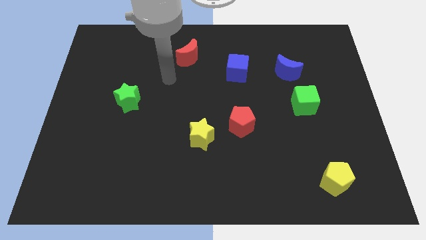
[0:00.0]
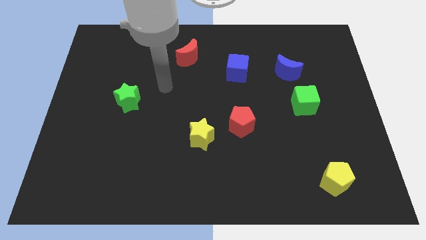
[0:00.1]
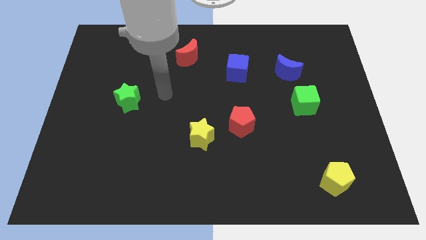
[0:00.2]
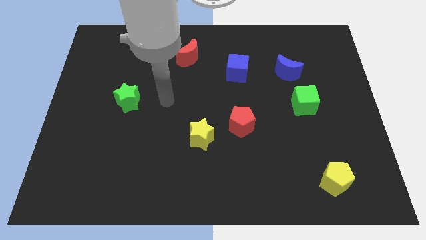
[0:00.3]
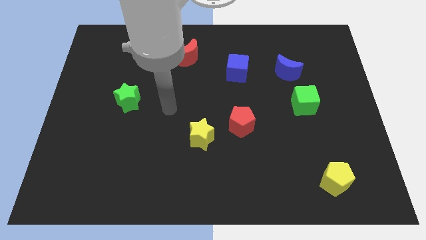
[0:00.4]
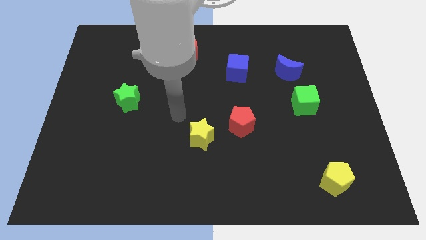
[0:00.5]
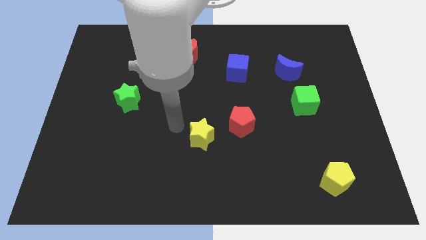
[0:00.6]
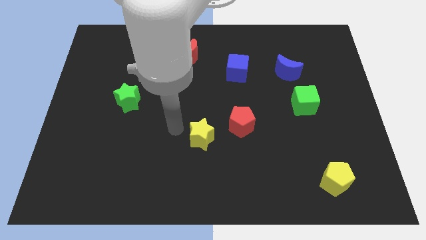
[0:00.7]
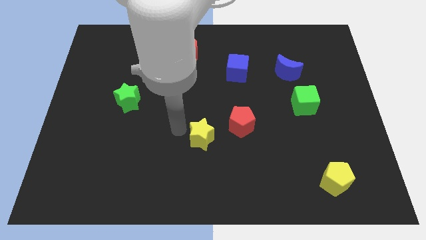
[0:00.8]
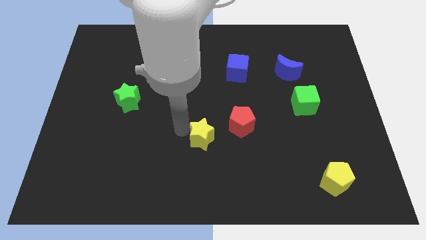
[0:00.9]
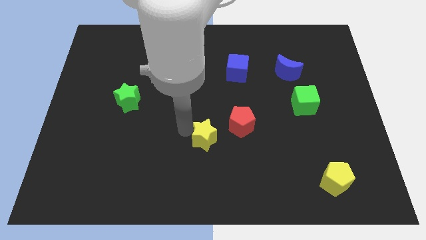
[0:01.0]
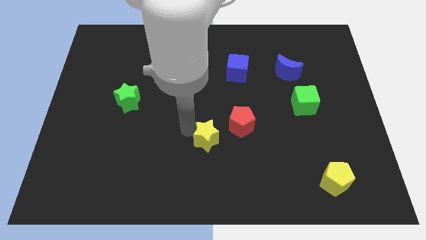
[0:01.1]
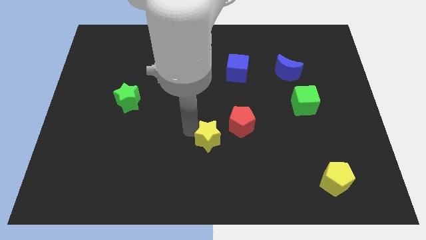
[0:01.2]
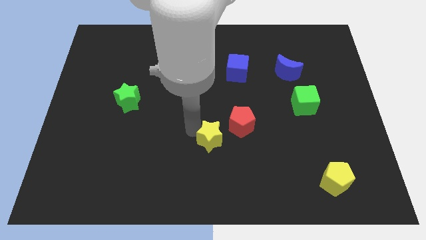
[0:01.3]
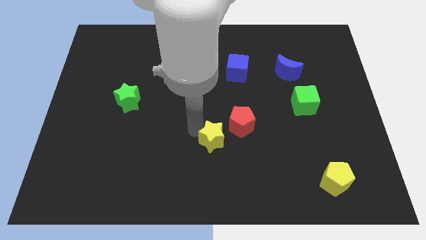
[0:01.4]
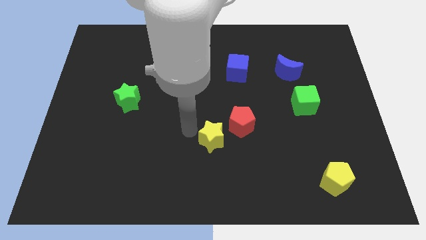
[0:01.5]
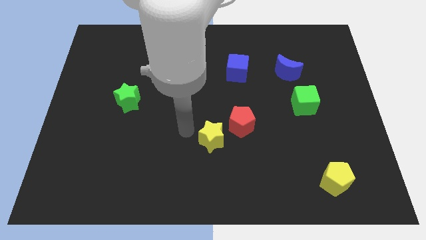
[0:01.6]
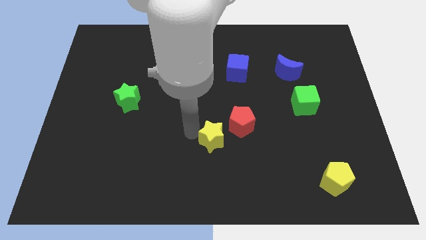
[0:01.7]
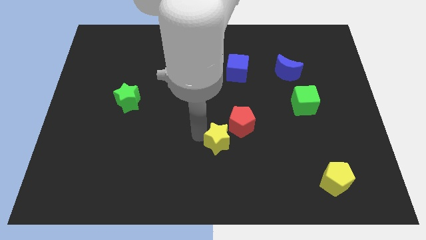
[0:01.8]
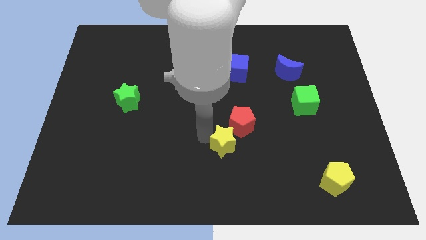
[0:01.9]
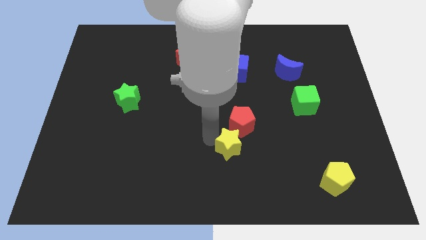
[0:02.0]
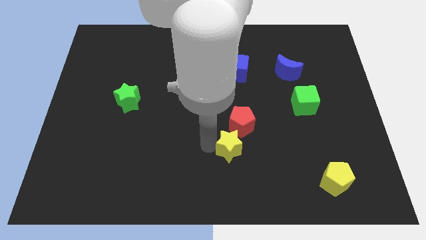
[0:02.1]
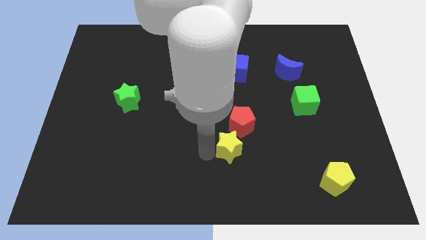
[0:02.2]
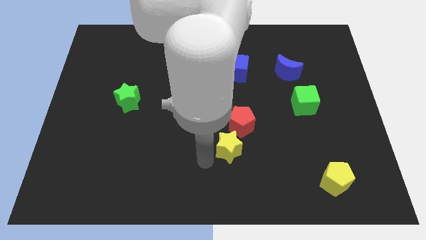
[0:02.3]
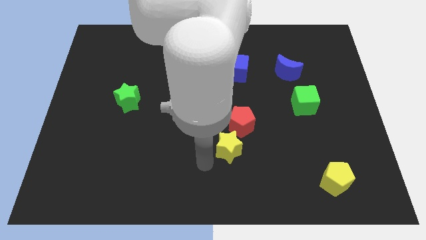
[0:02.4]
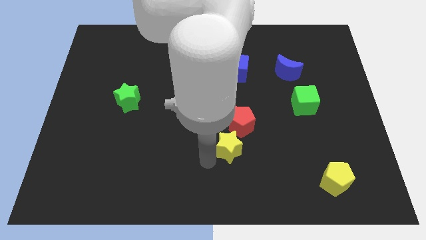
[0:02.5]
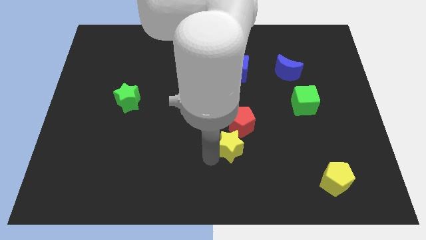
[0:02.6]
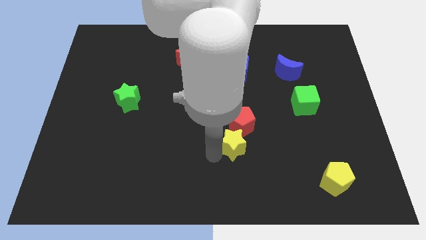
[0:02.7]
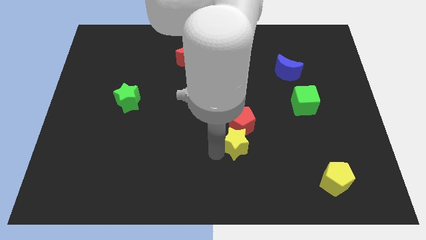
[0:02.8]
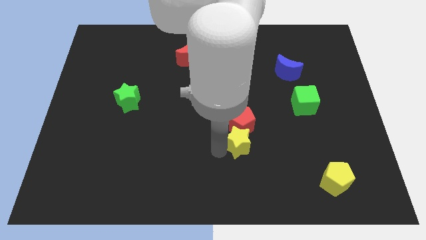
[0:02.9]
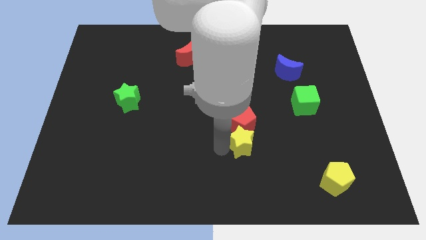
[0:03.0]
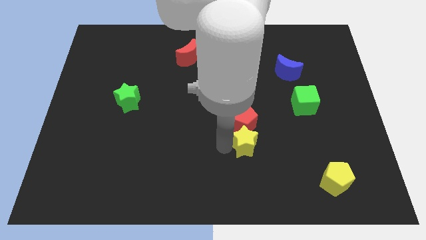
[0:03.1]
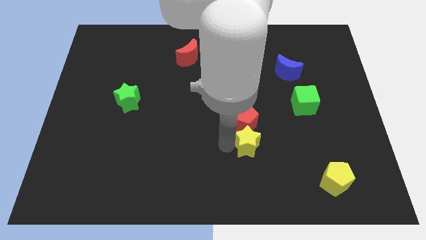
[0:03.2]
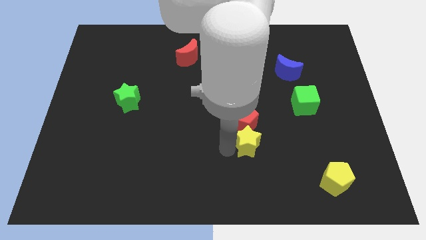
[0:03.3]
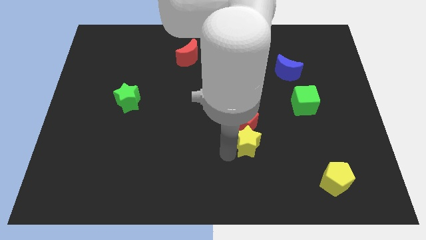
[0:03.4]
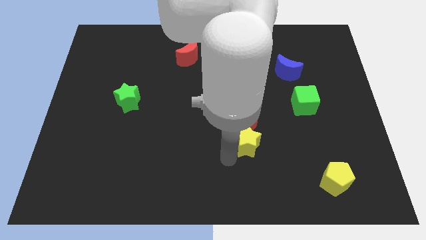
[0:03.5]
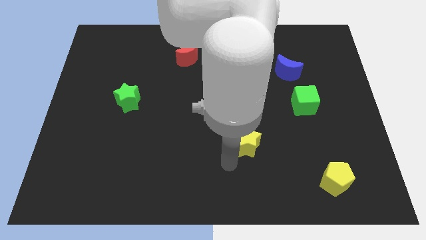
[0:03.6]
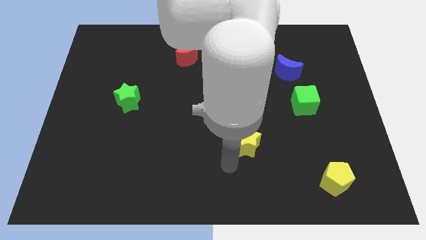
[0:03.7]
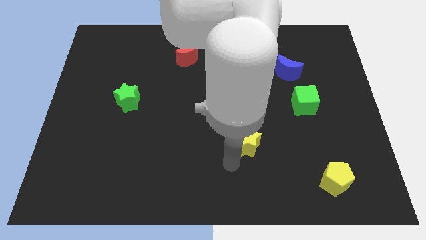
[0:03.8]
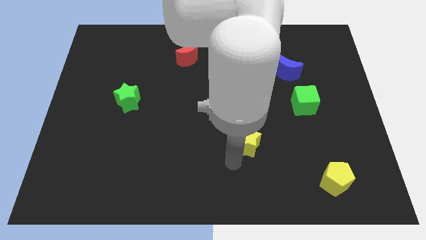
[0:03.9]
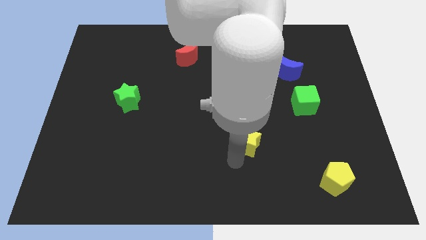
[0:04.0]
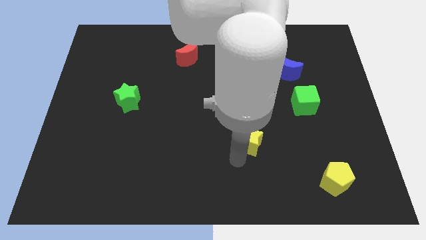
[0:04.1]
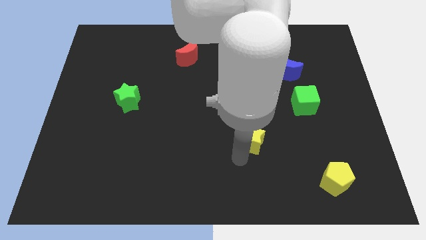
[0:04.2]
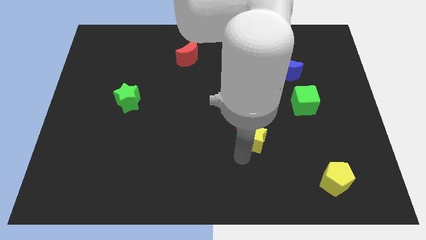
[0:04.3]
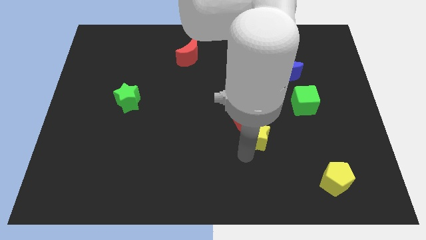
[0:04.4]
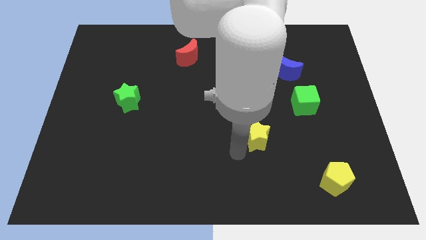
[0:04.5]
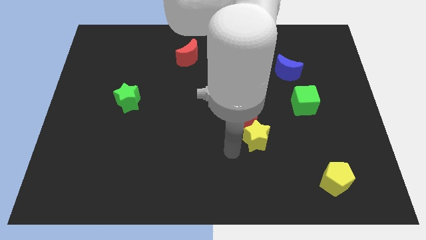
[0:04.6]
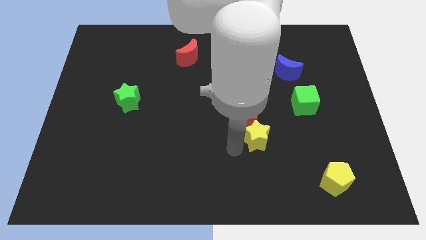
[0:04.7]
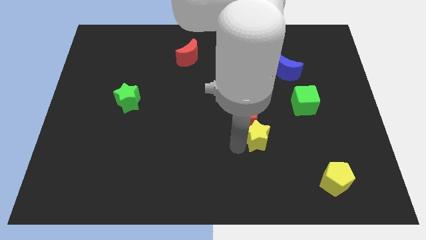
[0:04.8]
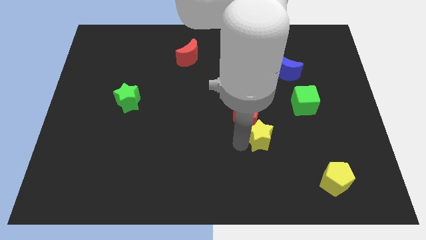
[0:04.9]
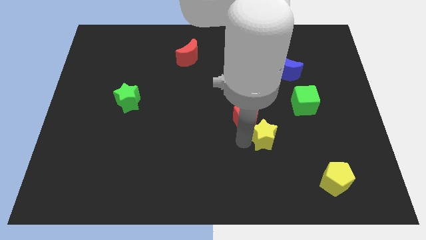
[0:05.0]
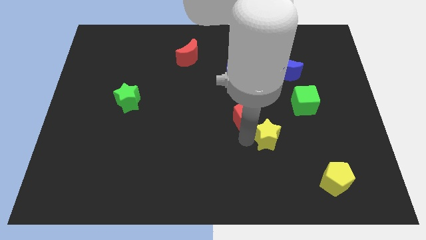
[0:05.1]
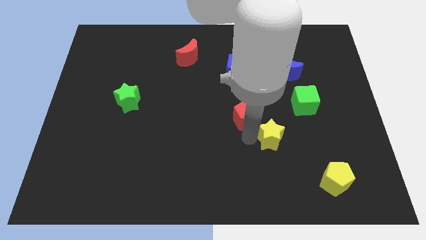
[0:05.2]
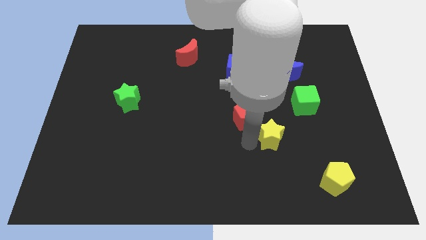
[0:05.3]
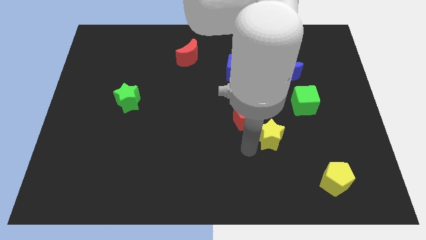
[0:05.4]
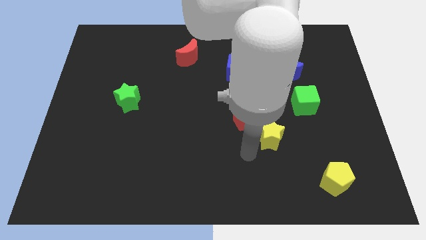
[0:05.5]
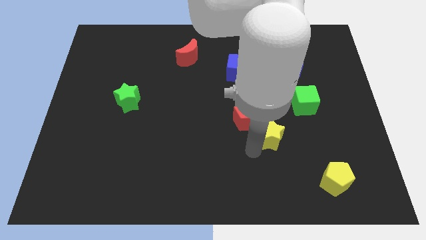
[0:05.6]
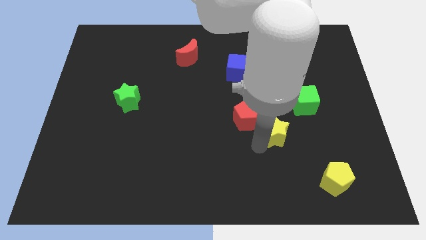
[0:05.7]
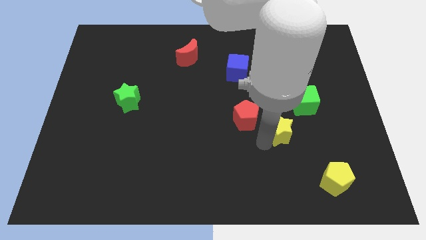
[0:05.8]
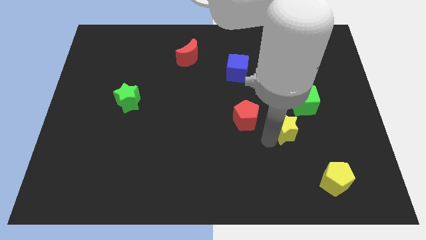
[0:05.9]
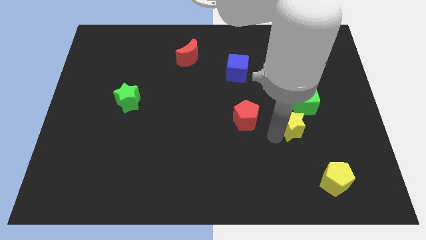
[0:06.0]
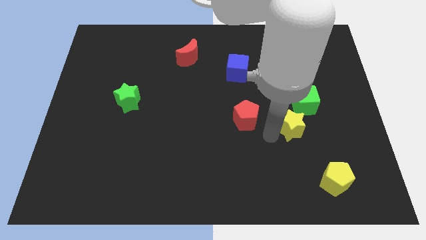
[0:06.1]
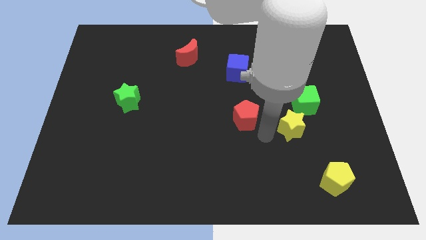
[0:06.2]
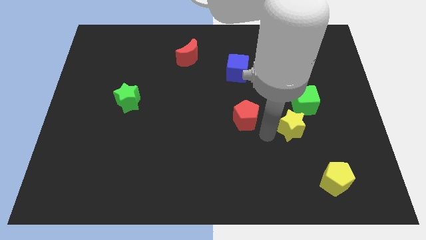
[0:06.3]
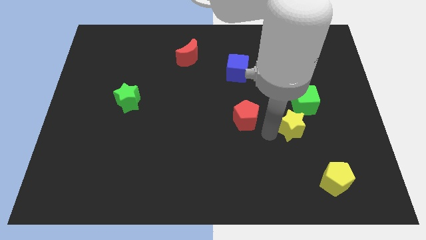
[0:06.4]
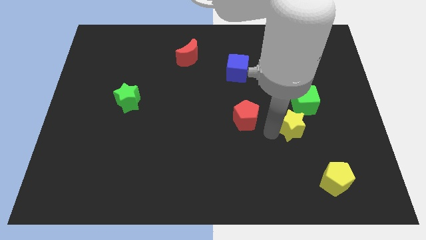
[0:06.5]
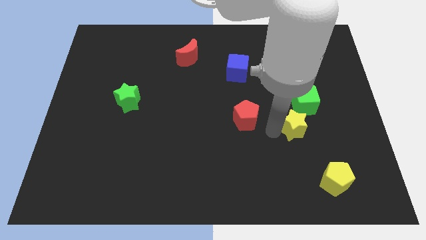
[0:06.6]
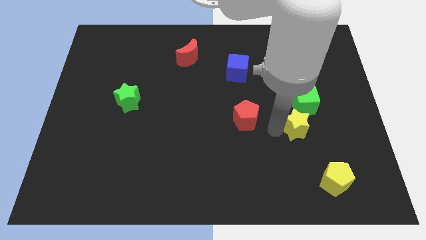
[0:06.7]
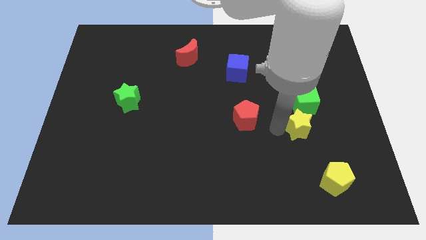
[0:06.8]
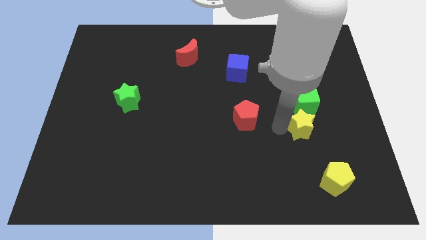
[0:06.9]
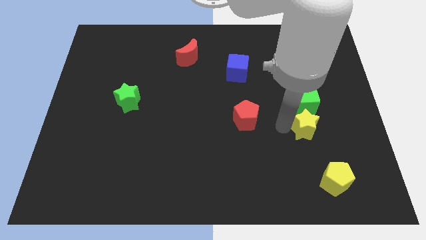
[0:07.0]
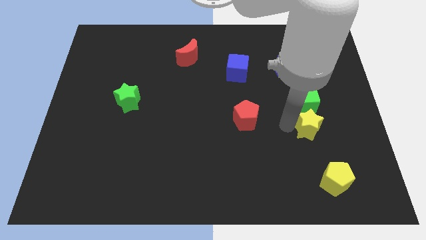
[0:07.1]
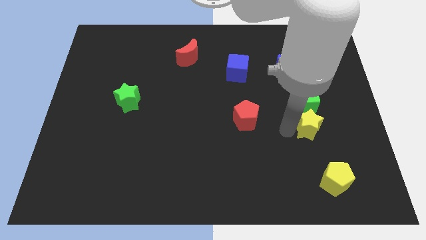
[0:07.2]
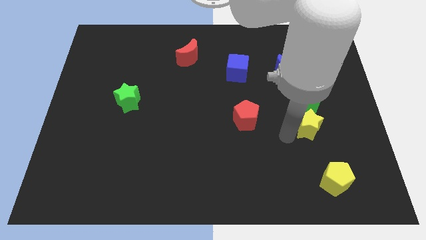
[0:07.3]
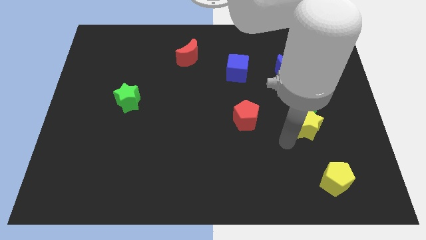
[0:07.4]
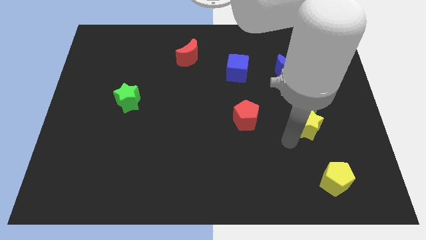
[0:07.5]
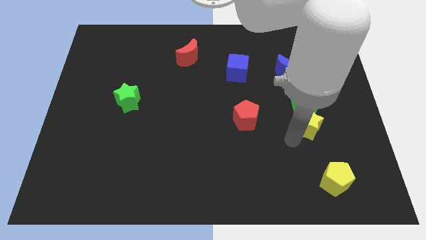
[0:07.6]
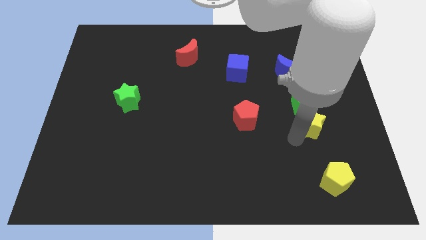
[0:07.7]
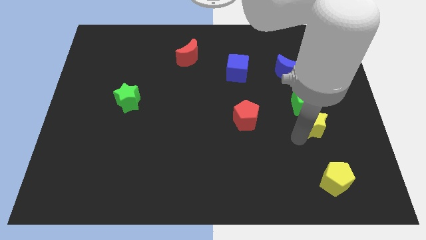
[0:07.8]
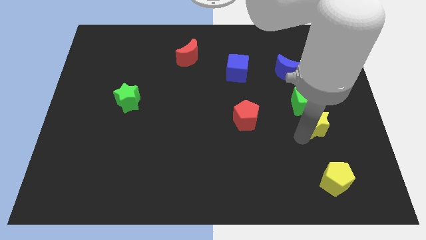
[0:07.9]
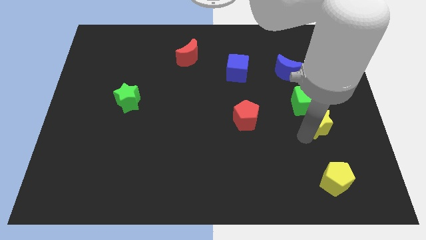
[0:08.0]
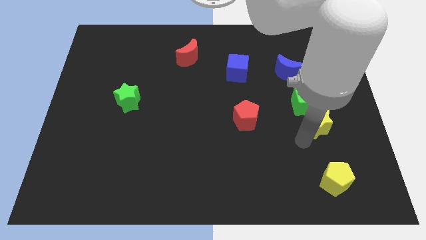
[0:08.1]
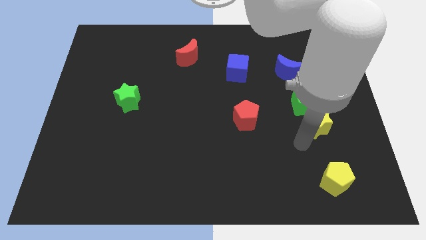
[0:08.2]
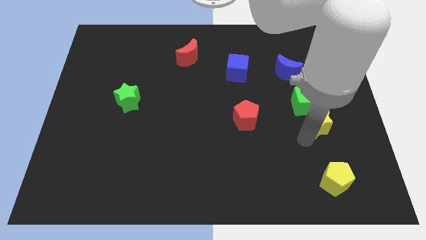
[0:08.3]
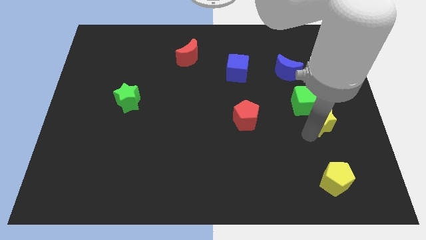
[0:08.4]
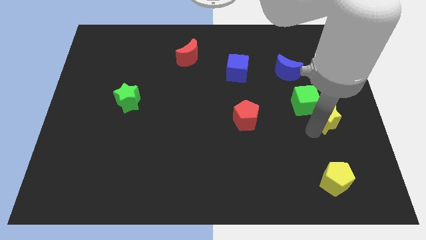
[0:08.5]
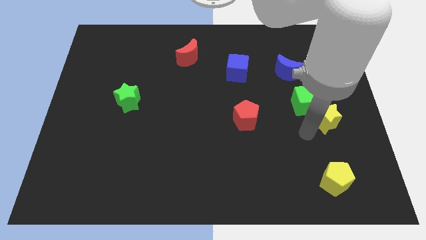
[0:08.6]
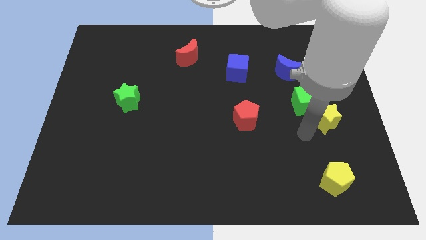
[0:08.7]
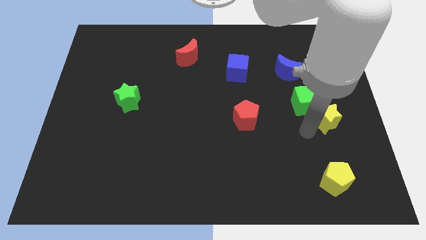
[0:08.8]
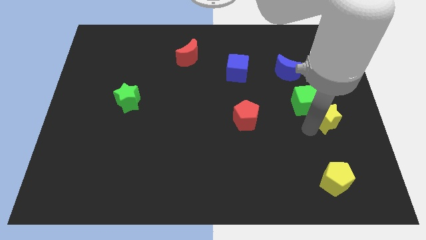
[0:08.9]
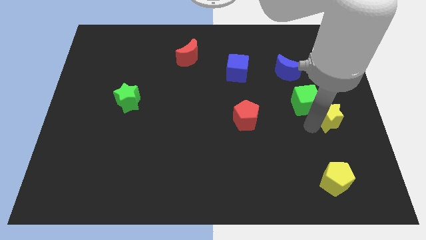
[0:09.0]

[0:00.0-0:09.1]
slide the yellow star to the right side
